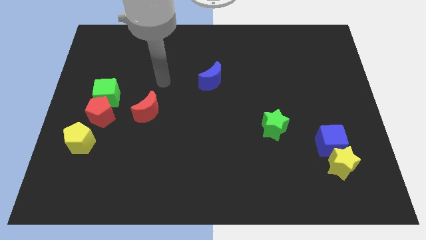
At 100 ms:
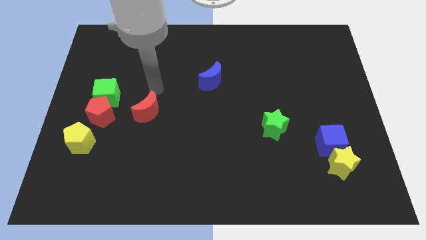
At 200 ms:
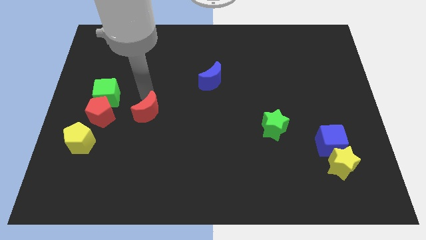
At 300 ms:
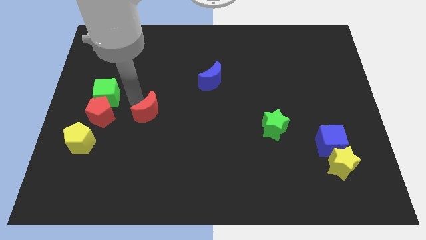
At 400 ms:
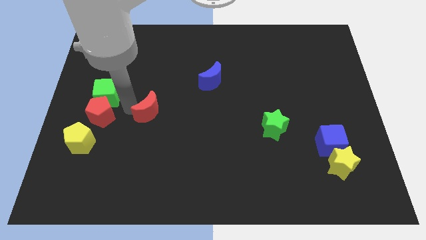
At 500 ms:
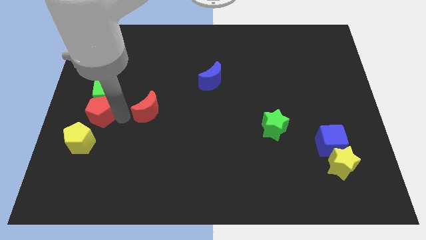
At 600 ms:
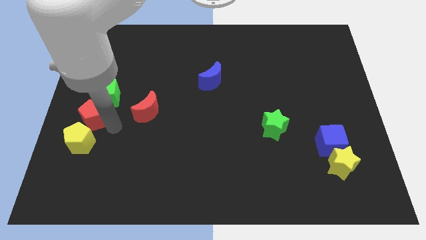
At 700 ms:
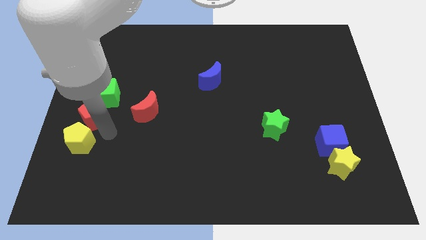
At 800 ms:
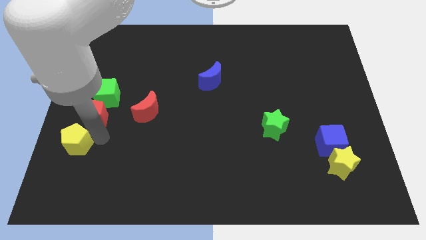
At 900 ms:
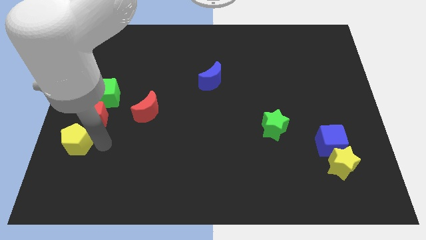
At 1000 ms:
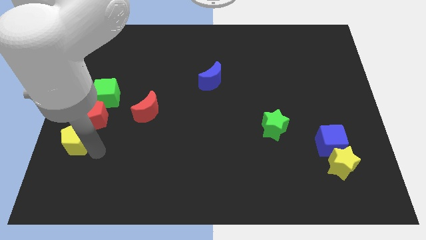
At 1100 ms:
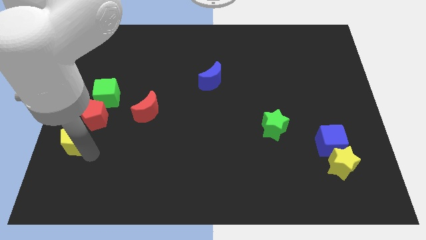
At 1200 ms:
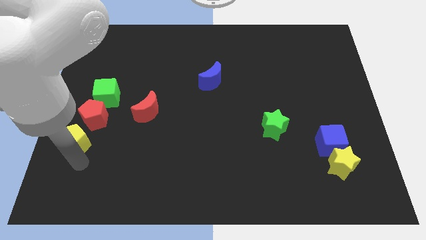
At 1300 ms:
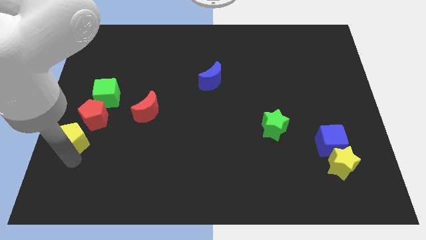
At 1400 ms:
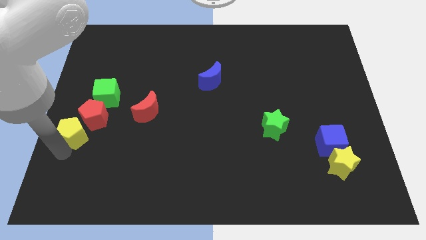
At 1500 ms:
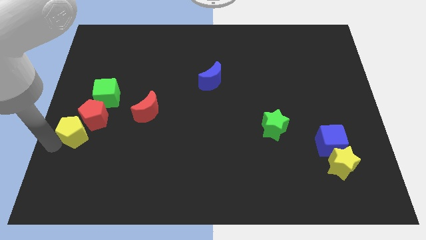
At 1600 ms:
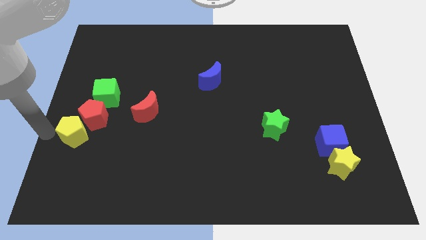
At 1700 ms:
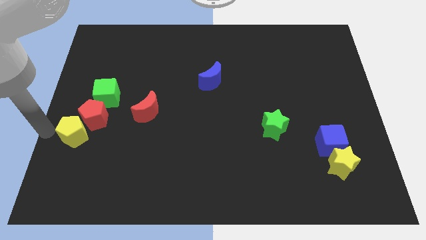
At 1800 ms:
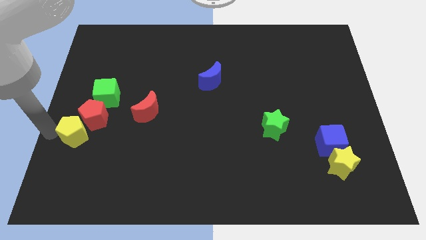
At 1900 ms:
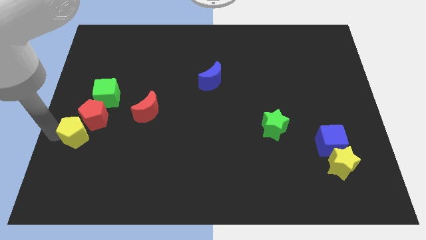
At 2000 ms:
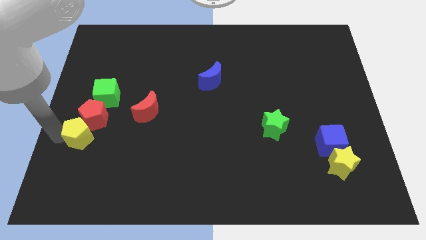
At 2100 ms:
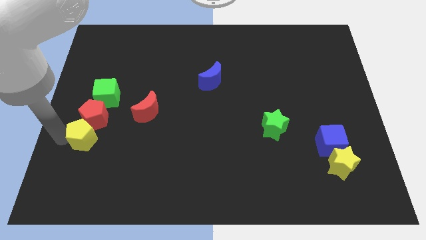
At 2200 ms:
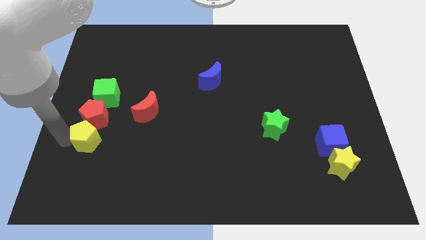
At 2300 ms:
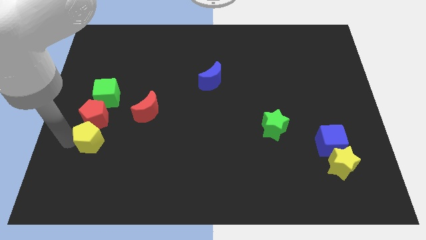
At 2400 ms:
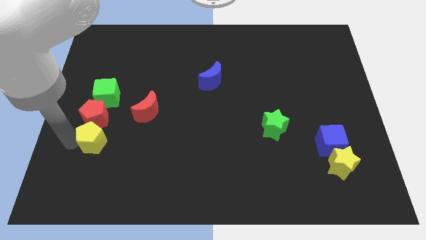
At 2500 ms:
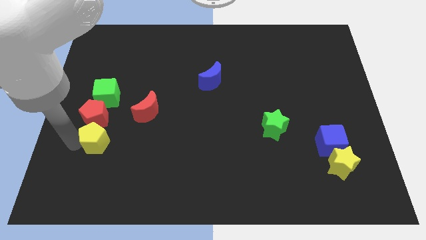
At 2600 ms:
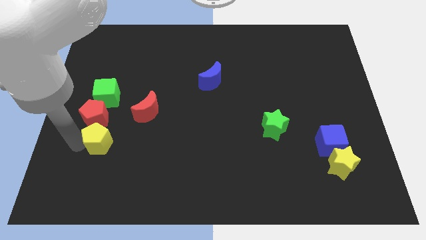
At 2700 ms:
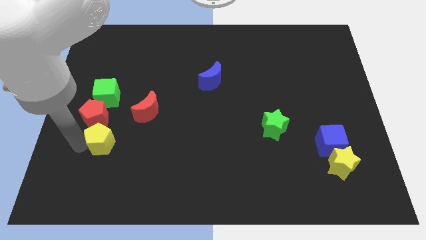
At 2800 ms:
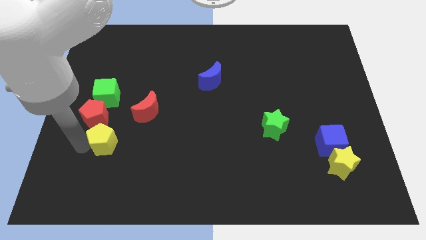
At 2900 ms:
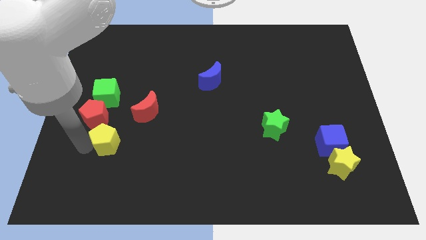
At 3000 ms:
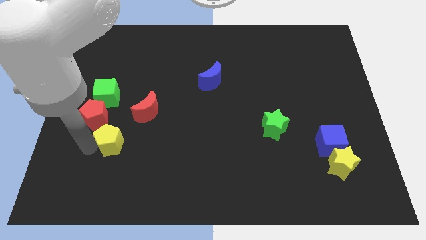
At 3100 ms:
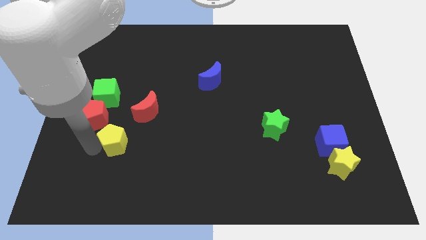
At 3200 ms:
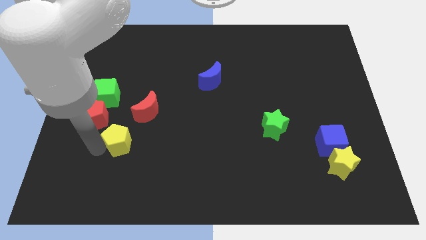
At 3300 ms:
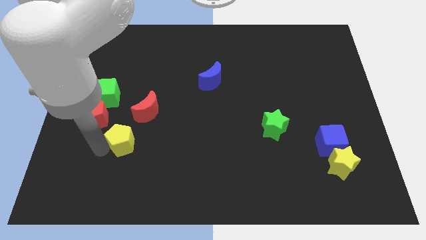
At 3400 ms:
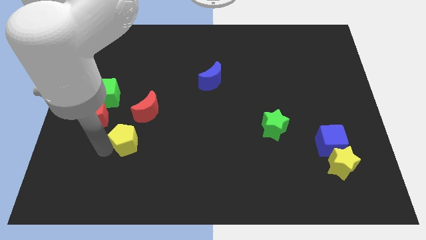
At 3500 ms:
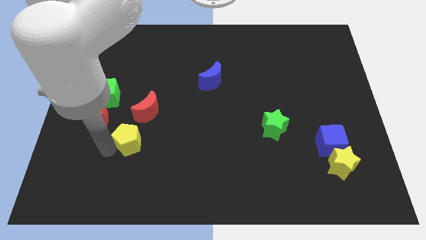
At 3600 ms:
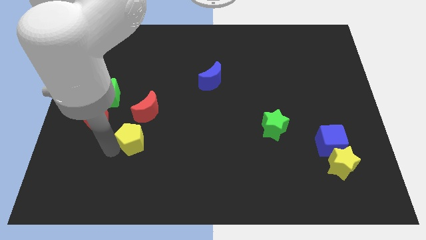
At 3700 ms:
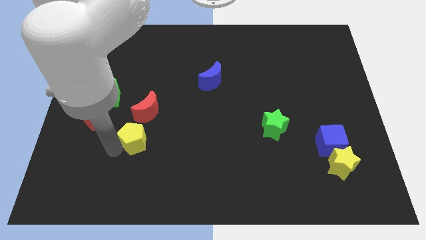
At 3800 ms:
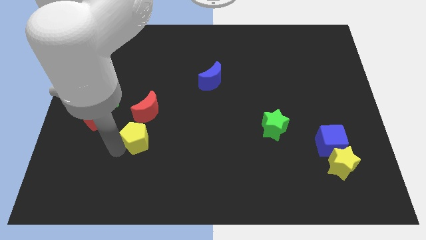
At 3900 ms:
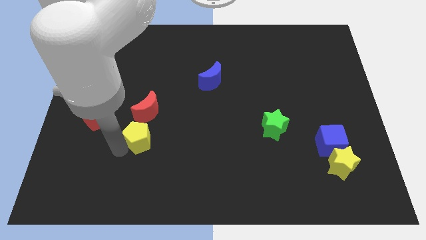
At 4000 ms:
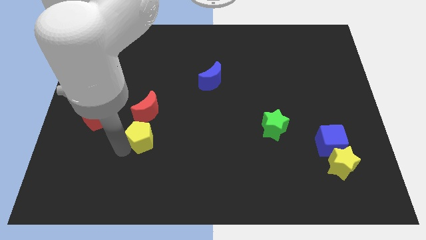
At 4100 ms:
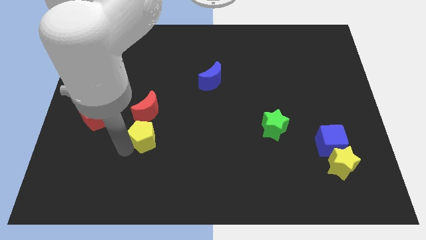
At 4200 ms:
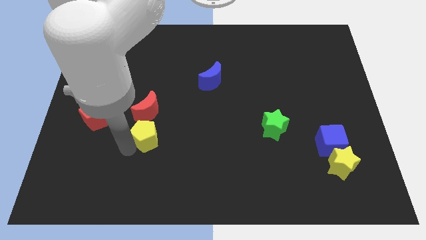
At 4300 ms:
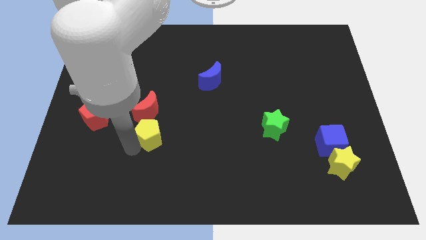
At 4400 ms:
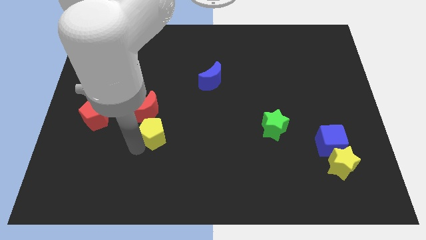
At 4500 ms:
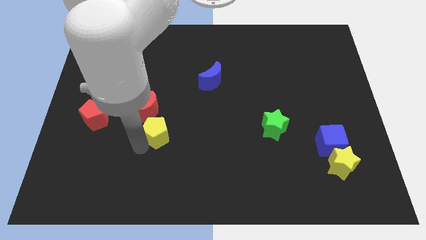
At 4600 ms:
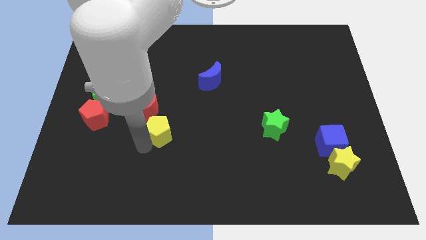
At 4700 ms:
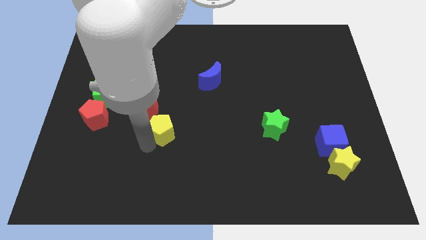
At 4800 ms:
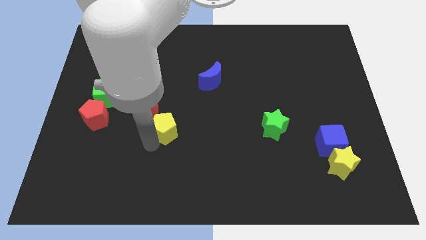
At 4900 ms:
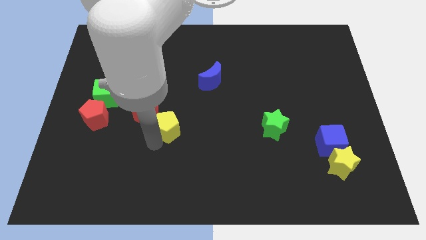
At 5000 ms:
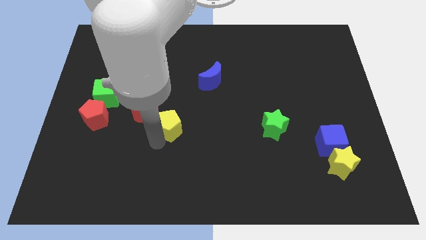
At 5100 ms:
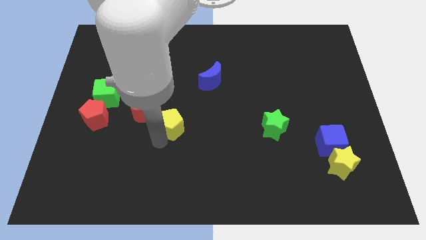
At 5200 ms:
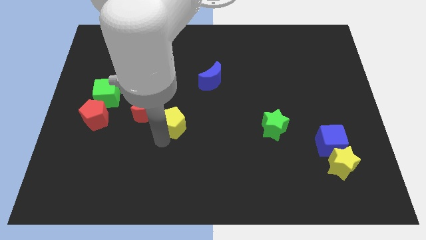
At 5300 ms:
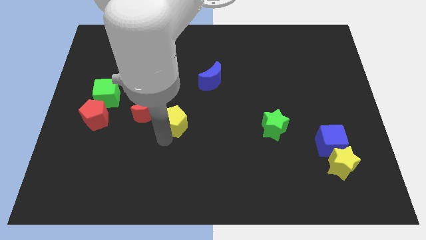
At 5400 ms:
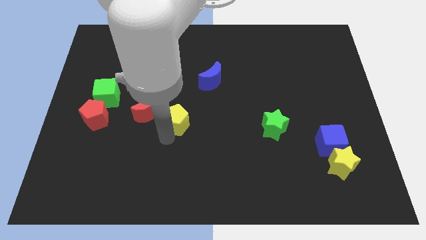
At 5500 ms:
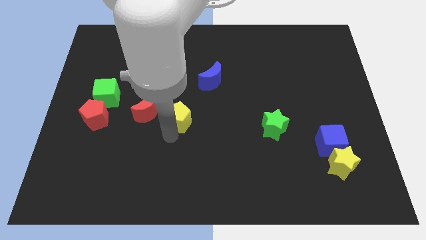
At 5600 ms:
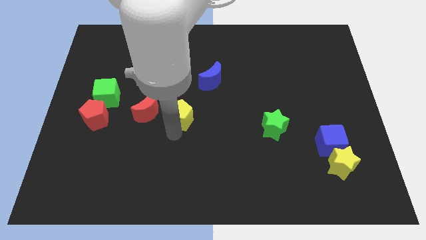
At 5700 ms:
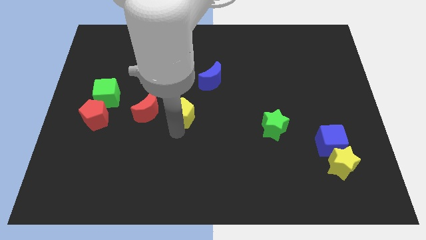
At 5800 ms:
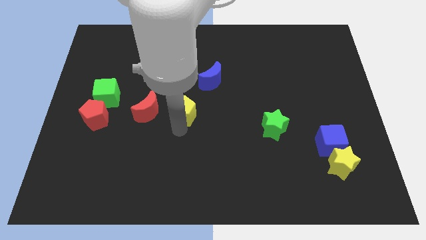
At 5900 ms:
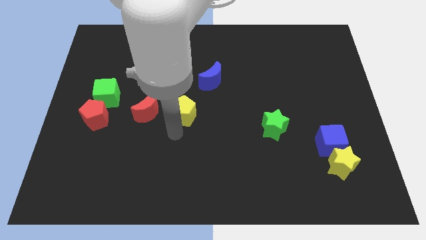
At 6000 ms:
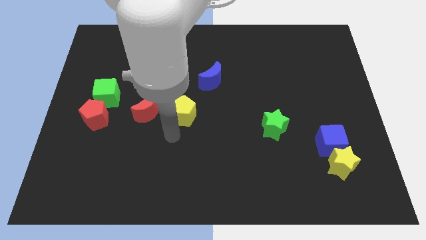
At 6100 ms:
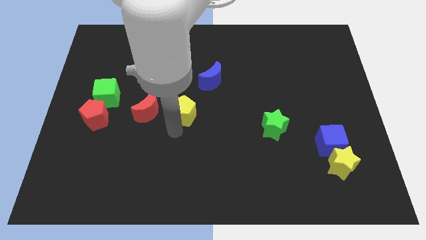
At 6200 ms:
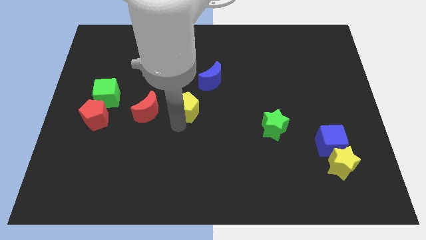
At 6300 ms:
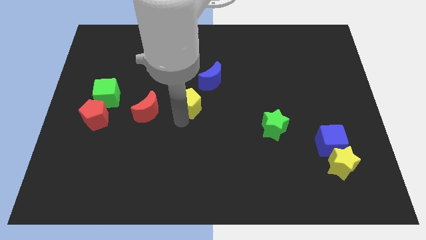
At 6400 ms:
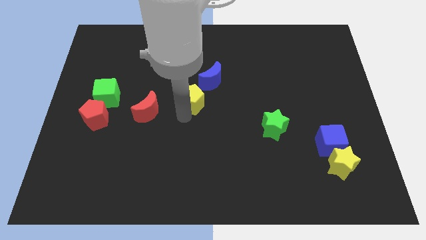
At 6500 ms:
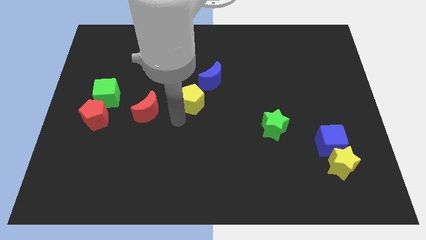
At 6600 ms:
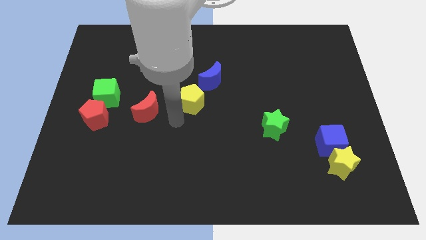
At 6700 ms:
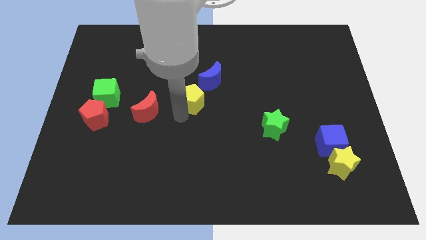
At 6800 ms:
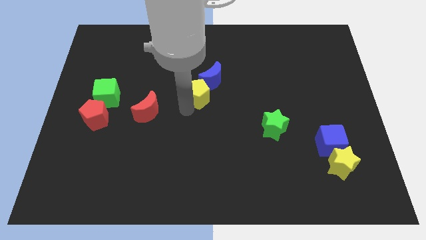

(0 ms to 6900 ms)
put the yellow pentagon to the blue moon
